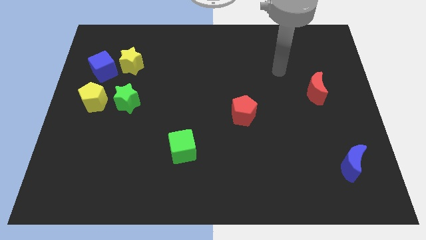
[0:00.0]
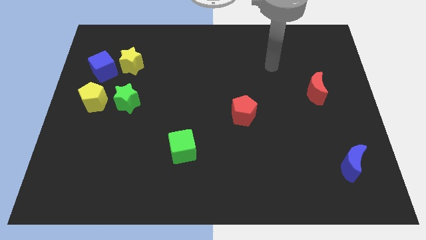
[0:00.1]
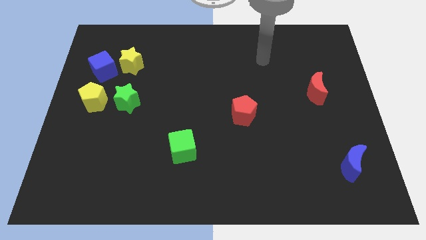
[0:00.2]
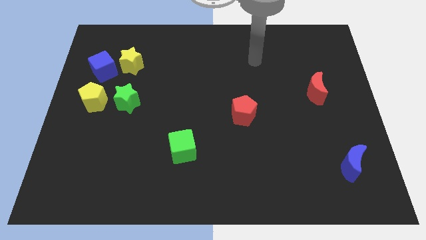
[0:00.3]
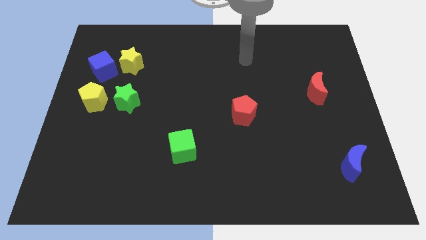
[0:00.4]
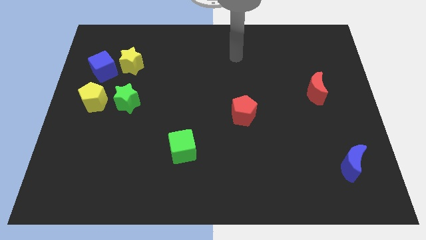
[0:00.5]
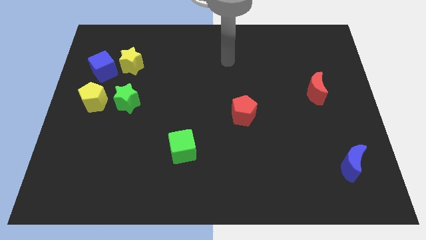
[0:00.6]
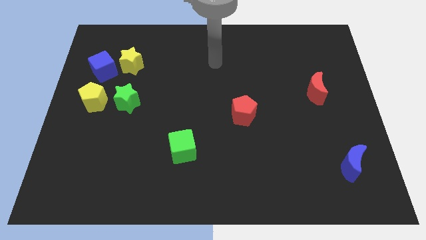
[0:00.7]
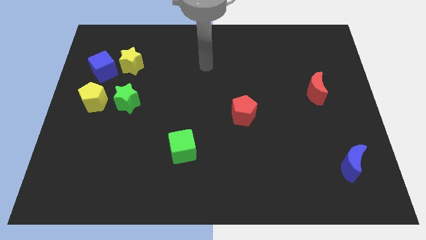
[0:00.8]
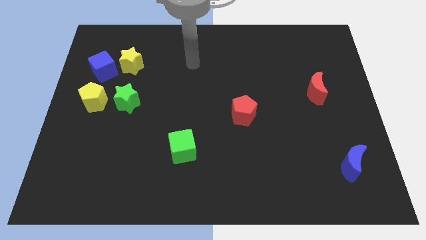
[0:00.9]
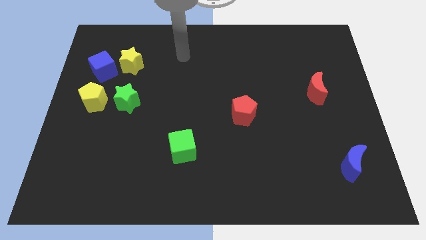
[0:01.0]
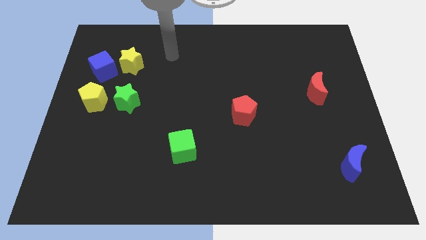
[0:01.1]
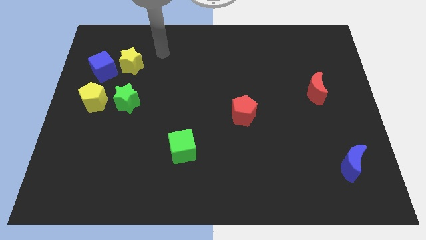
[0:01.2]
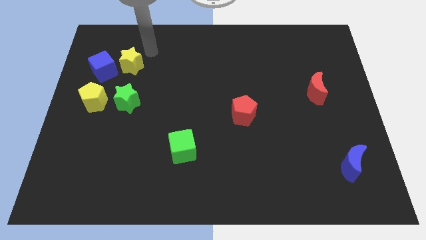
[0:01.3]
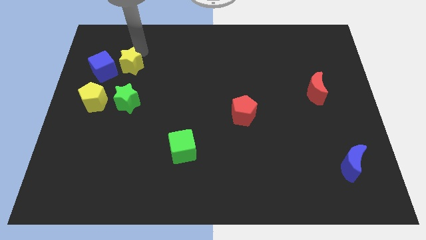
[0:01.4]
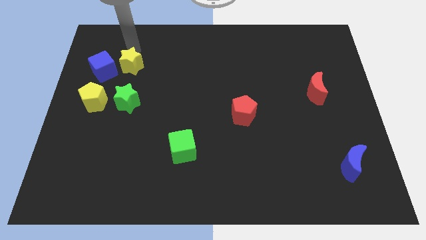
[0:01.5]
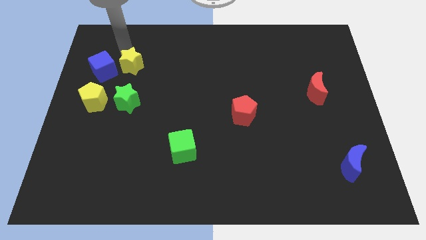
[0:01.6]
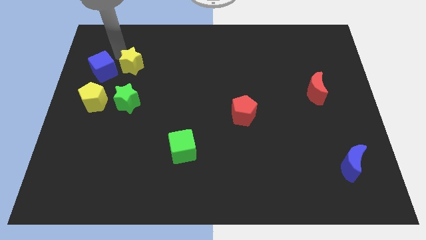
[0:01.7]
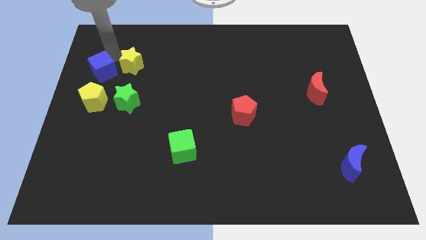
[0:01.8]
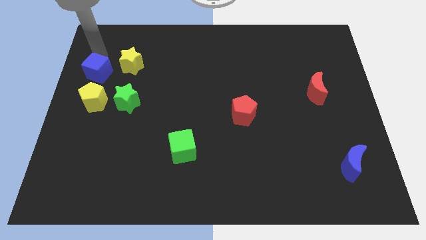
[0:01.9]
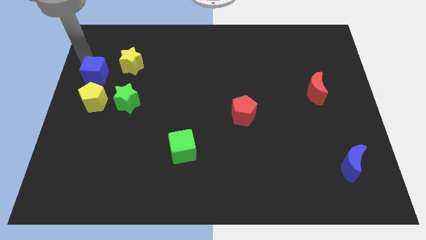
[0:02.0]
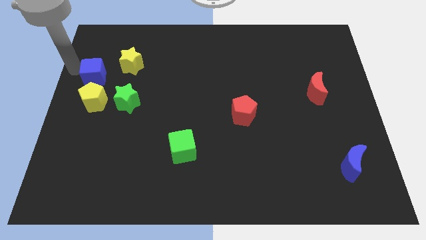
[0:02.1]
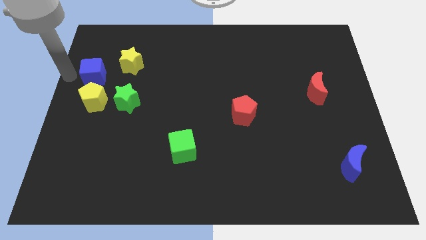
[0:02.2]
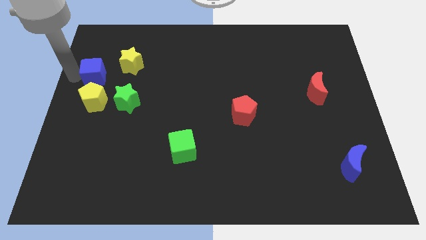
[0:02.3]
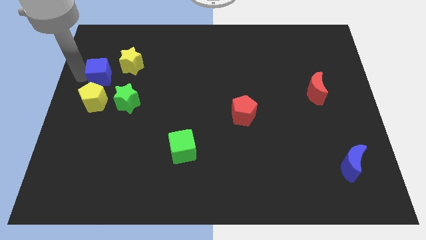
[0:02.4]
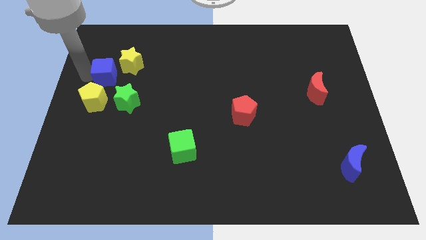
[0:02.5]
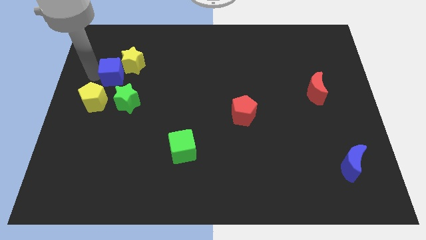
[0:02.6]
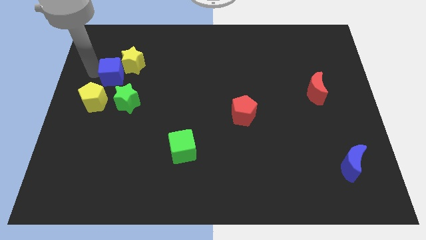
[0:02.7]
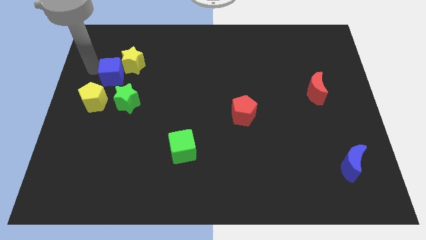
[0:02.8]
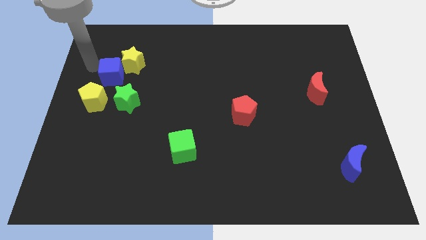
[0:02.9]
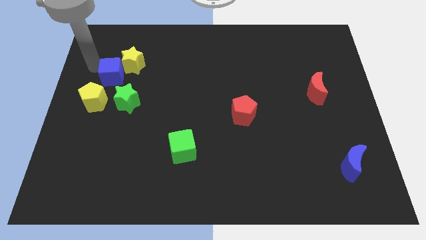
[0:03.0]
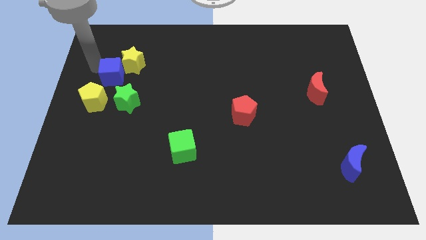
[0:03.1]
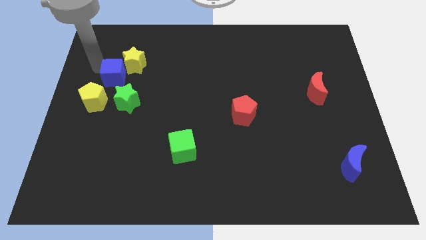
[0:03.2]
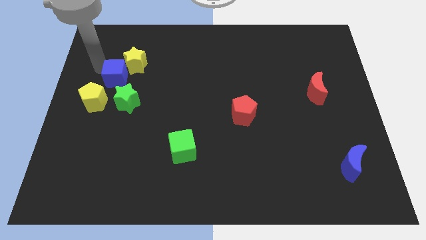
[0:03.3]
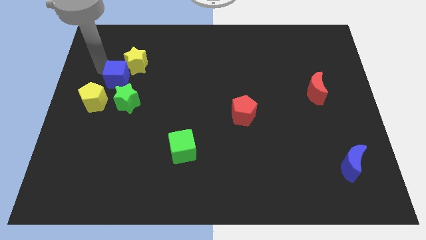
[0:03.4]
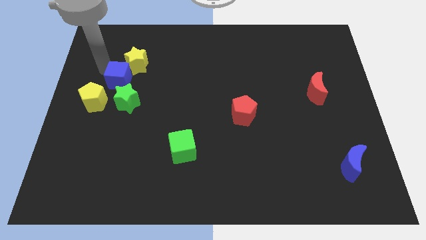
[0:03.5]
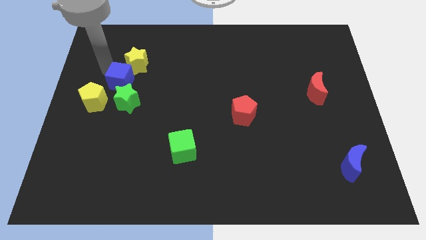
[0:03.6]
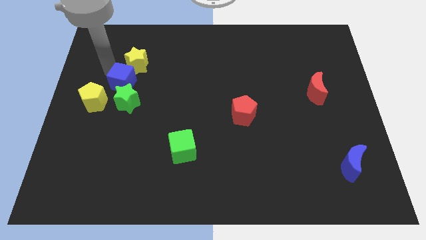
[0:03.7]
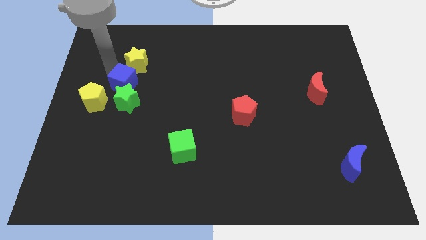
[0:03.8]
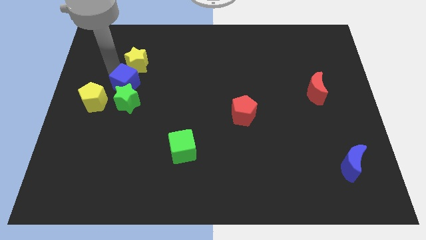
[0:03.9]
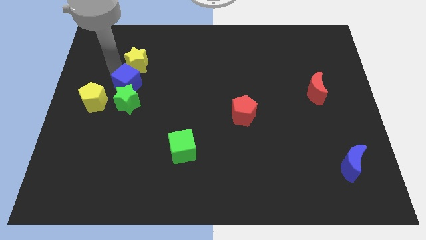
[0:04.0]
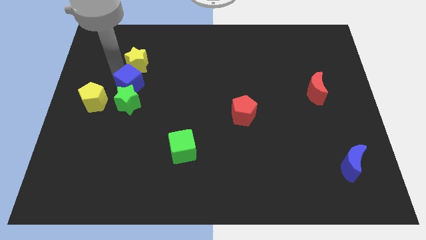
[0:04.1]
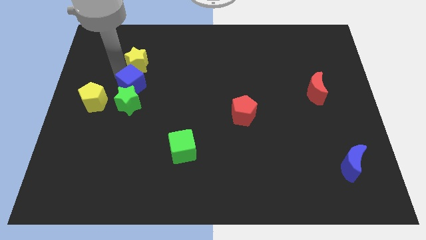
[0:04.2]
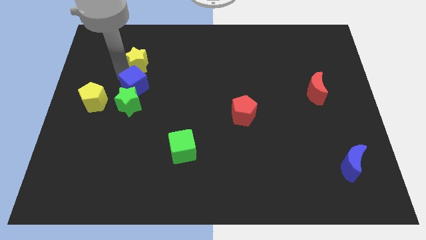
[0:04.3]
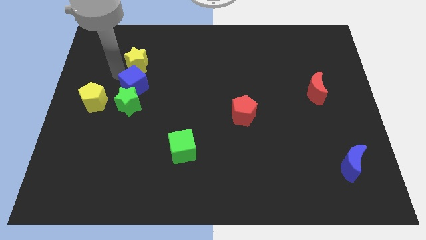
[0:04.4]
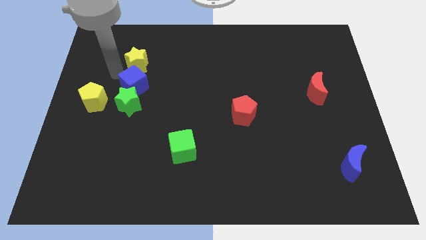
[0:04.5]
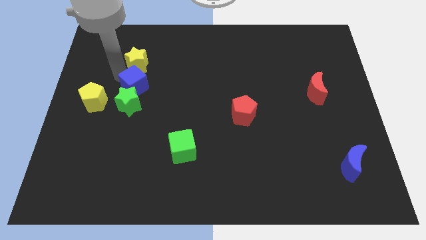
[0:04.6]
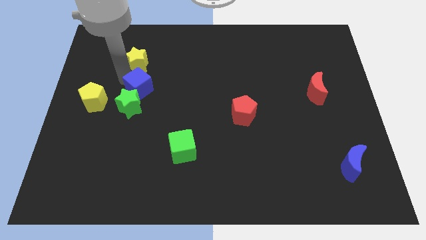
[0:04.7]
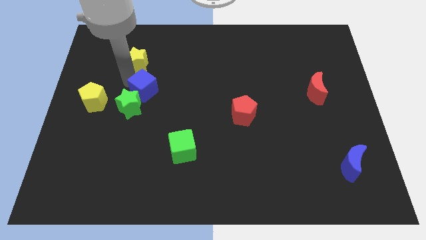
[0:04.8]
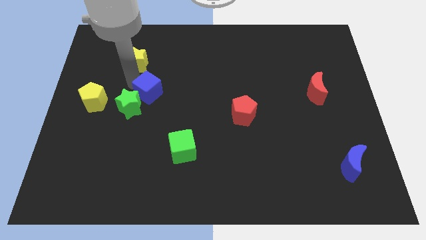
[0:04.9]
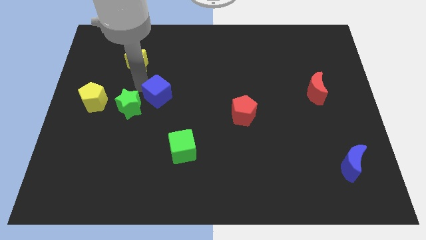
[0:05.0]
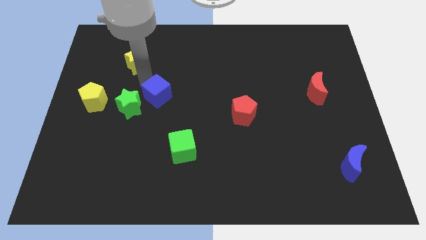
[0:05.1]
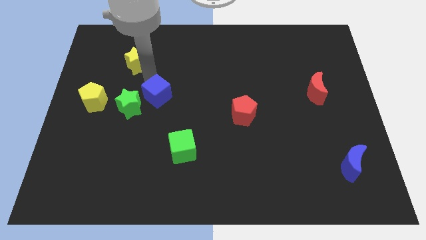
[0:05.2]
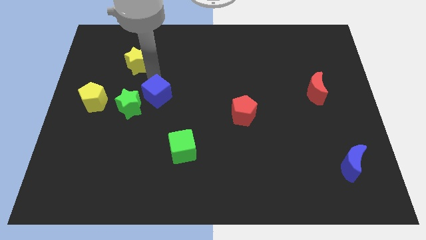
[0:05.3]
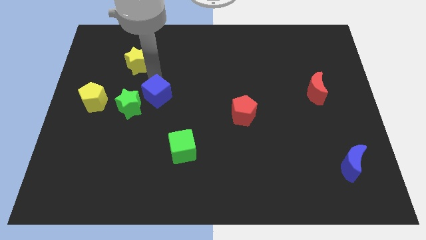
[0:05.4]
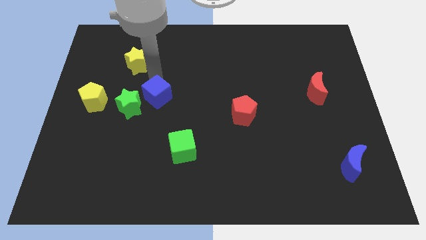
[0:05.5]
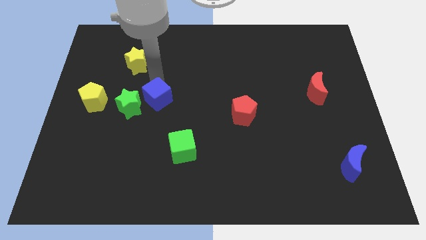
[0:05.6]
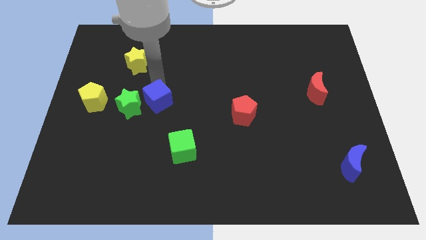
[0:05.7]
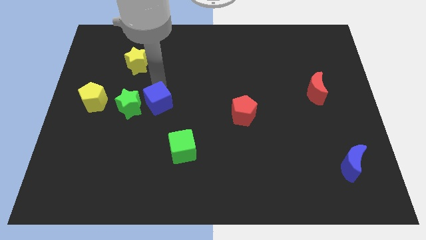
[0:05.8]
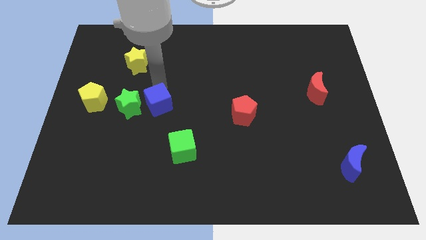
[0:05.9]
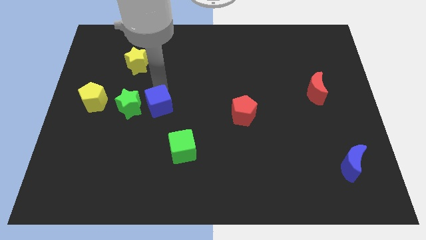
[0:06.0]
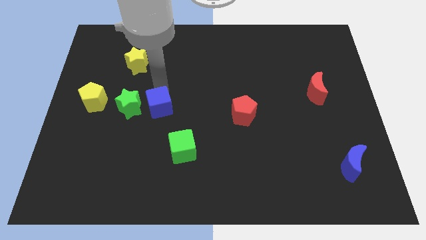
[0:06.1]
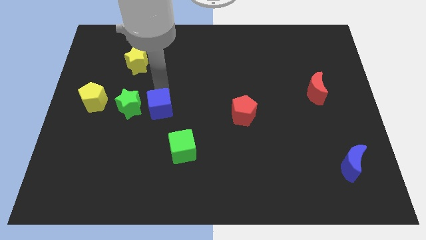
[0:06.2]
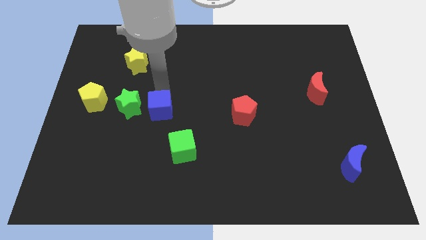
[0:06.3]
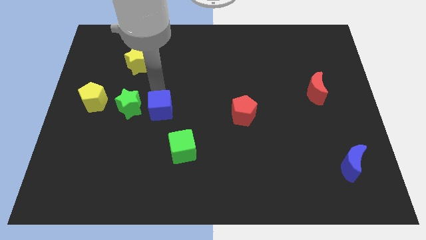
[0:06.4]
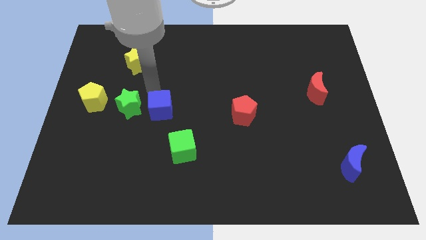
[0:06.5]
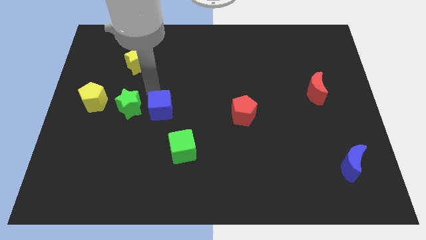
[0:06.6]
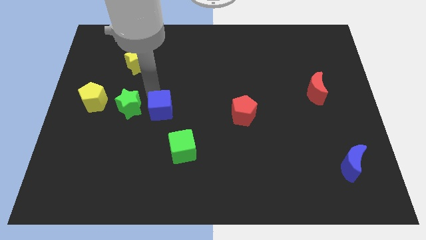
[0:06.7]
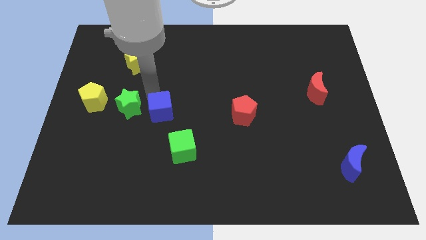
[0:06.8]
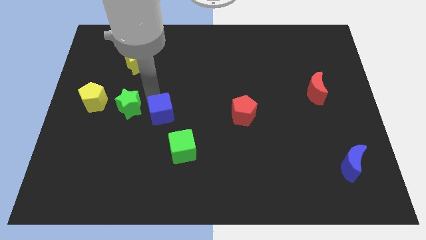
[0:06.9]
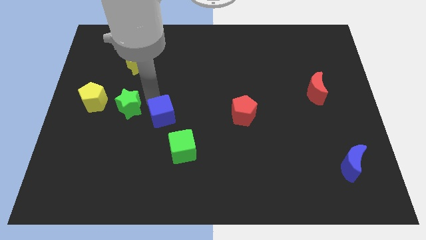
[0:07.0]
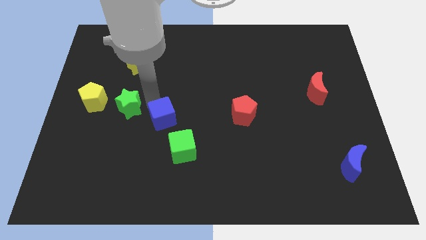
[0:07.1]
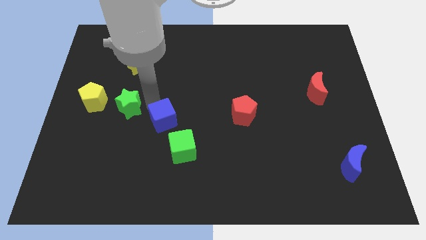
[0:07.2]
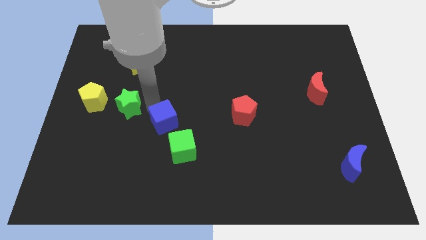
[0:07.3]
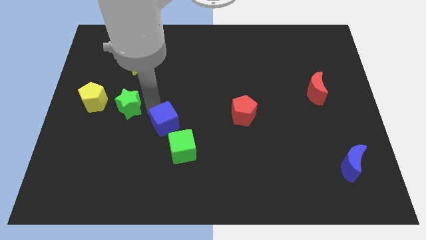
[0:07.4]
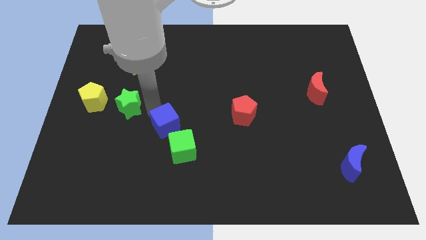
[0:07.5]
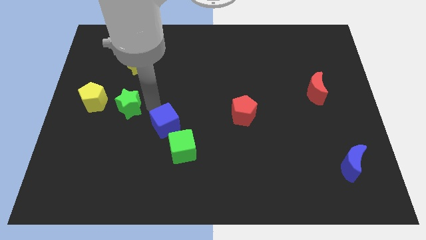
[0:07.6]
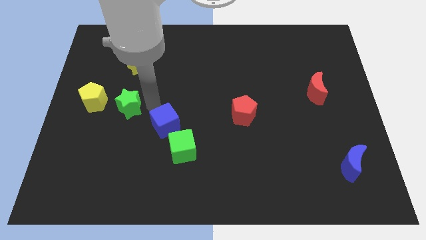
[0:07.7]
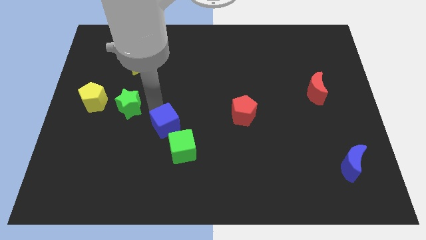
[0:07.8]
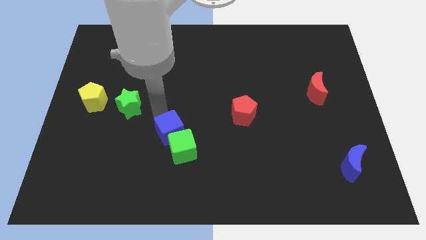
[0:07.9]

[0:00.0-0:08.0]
put the blue cube close to the green cube
